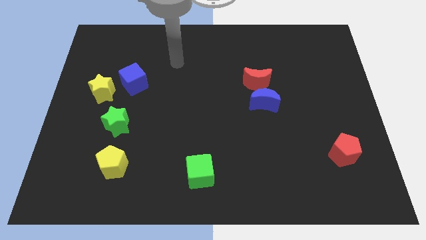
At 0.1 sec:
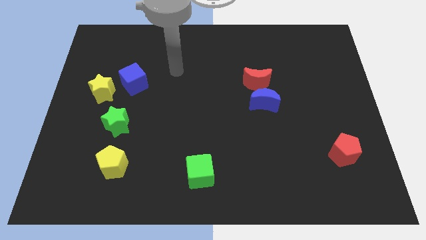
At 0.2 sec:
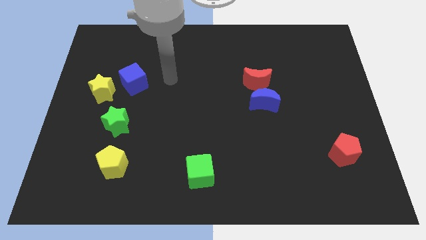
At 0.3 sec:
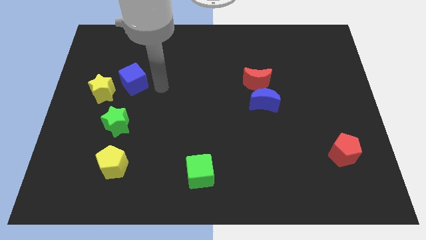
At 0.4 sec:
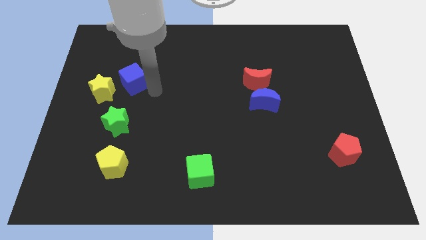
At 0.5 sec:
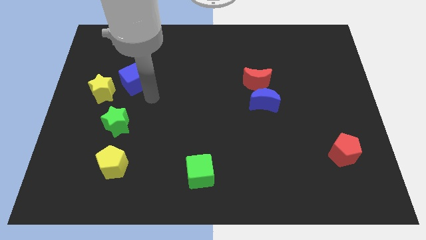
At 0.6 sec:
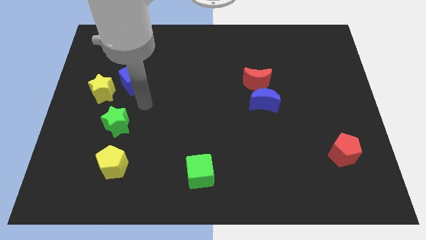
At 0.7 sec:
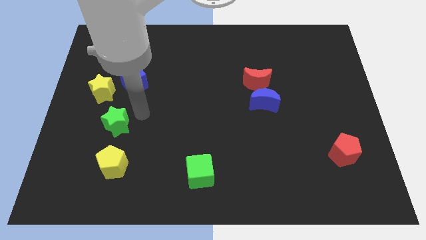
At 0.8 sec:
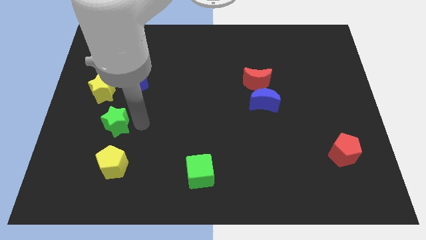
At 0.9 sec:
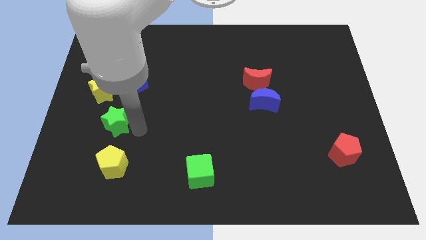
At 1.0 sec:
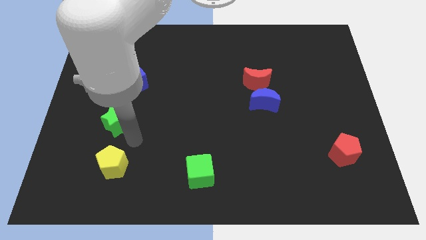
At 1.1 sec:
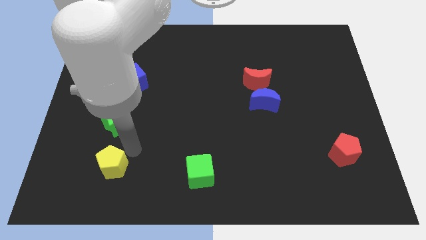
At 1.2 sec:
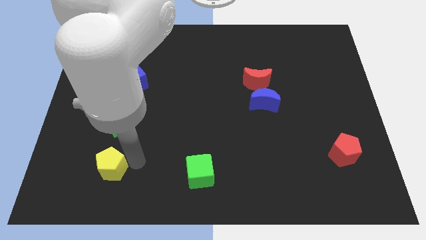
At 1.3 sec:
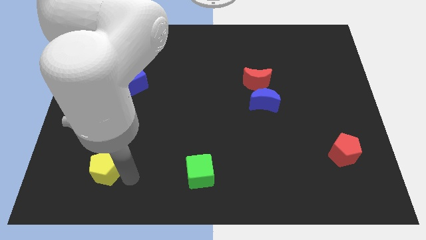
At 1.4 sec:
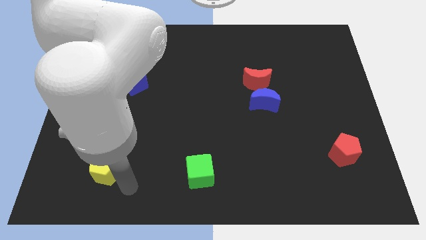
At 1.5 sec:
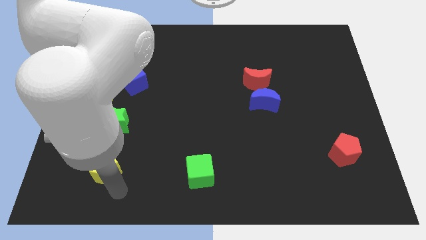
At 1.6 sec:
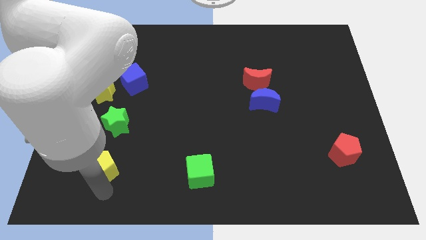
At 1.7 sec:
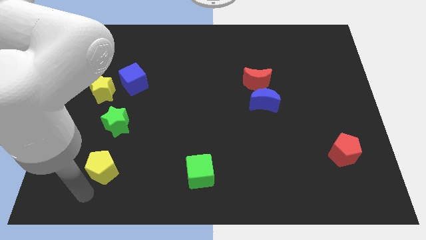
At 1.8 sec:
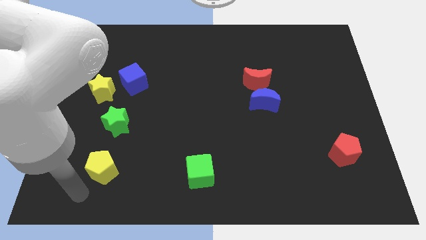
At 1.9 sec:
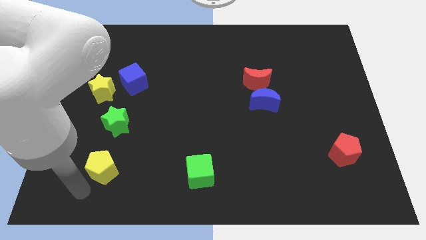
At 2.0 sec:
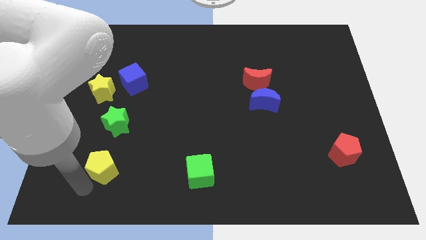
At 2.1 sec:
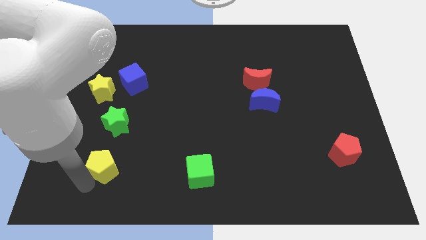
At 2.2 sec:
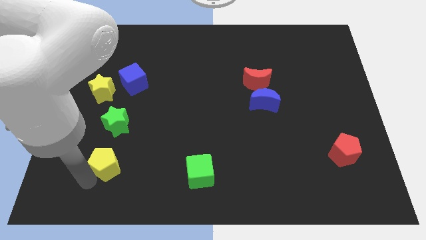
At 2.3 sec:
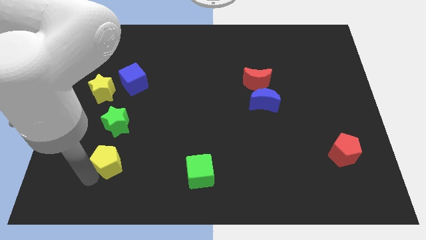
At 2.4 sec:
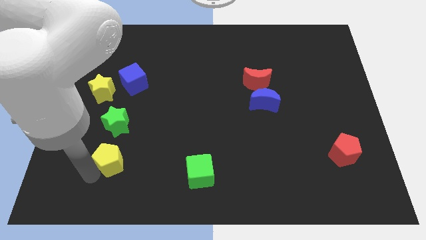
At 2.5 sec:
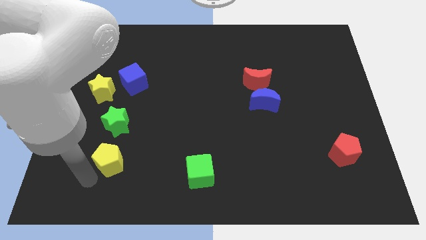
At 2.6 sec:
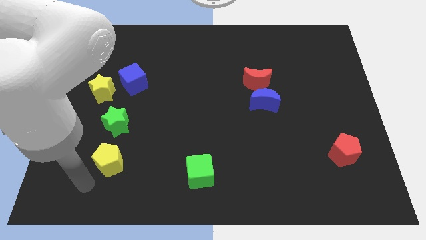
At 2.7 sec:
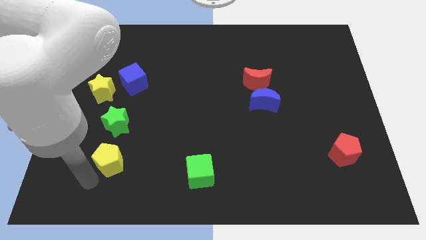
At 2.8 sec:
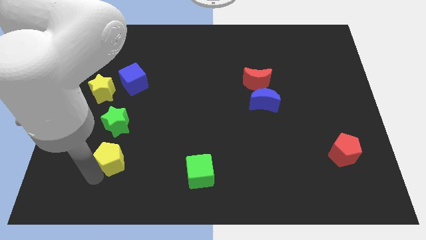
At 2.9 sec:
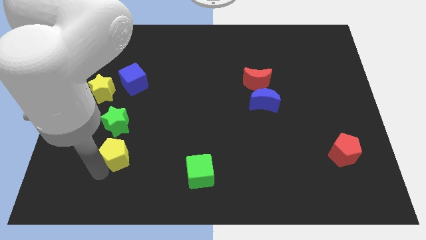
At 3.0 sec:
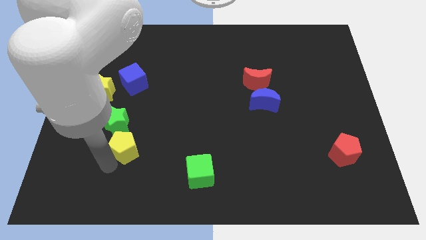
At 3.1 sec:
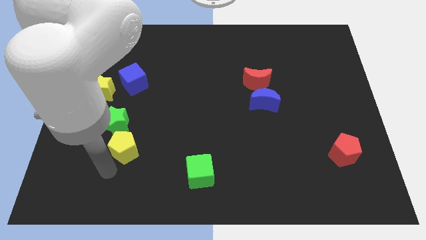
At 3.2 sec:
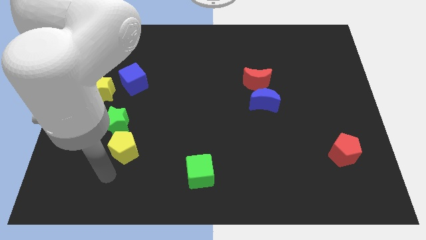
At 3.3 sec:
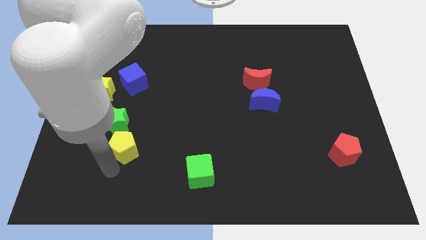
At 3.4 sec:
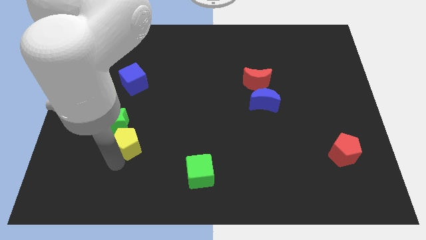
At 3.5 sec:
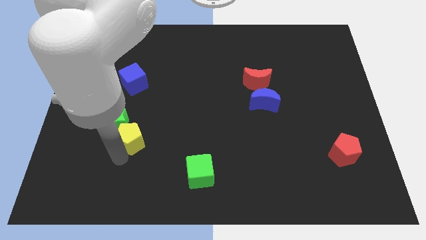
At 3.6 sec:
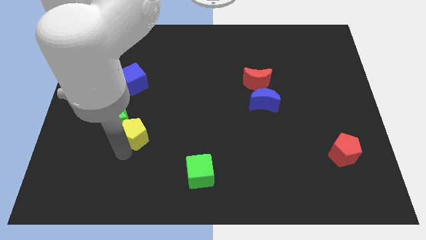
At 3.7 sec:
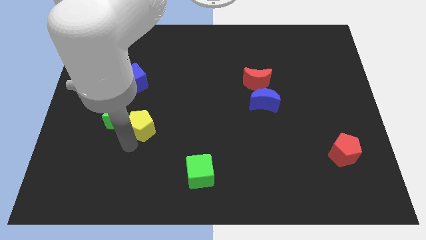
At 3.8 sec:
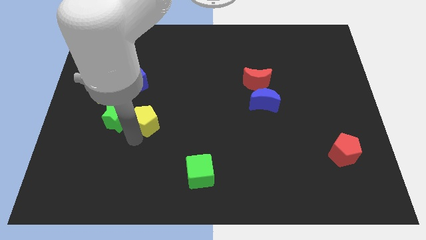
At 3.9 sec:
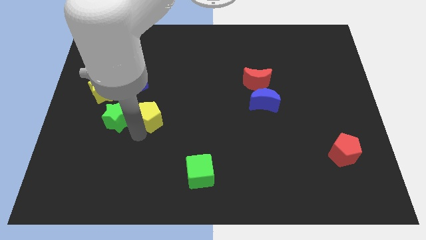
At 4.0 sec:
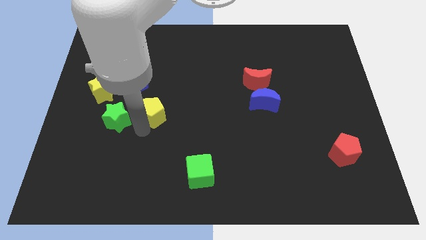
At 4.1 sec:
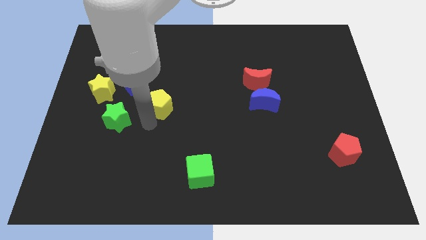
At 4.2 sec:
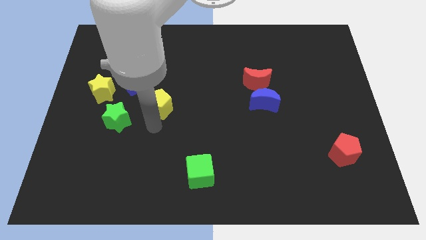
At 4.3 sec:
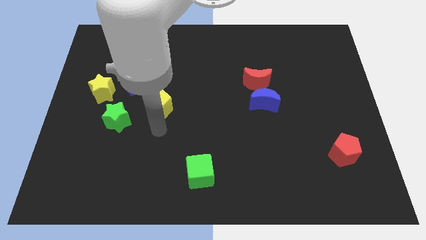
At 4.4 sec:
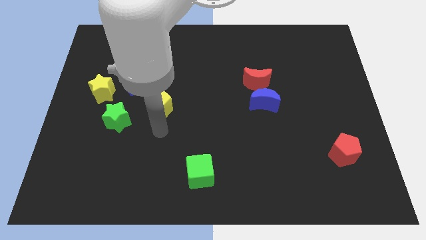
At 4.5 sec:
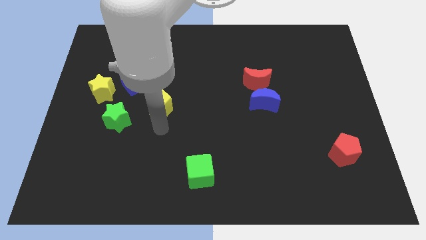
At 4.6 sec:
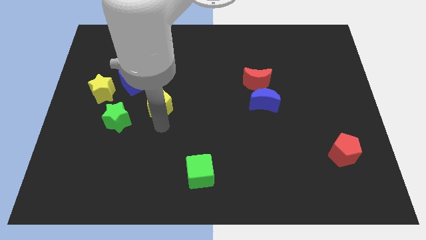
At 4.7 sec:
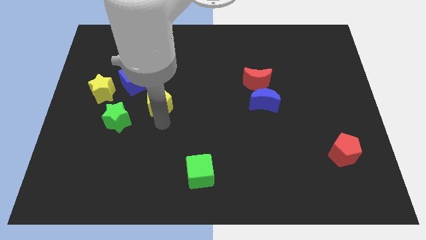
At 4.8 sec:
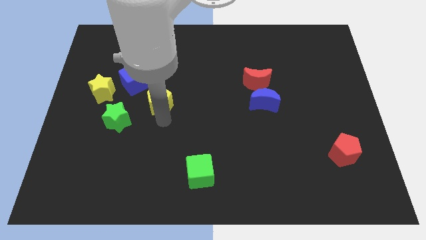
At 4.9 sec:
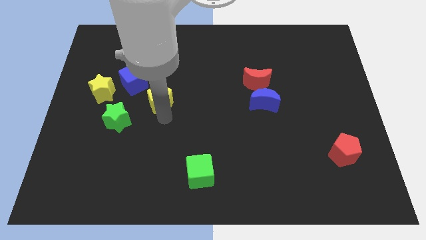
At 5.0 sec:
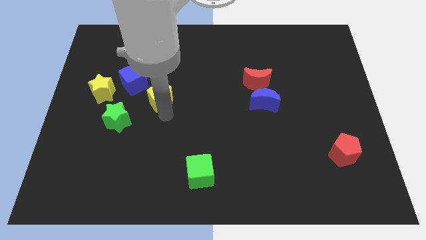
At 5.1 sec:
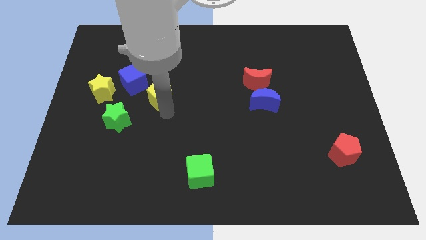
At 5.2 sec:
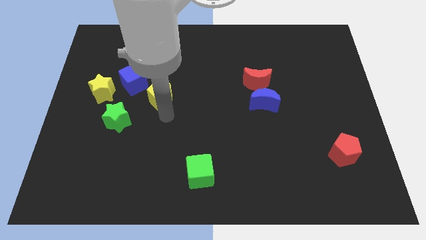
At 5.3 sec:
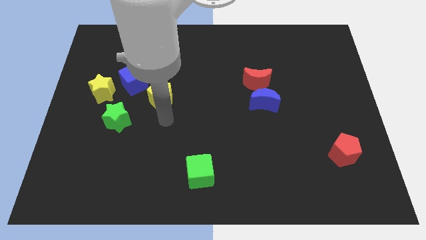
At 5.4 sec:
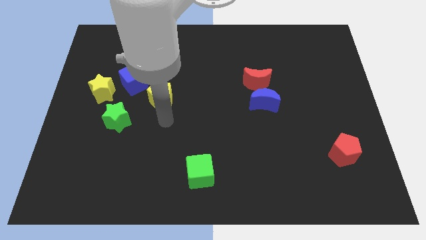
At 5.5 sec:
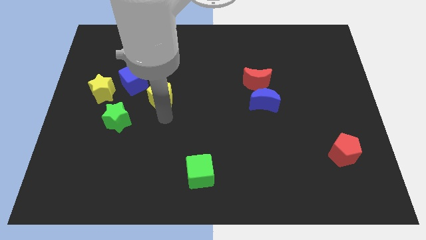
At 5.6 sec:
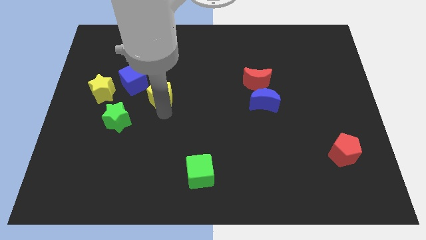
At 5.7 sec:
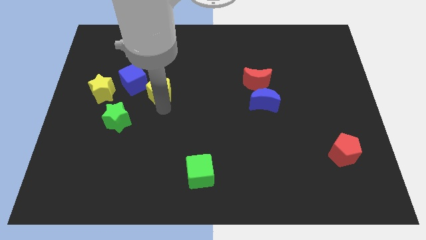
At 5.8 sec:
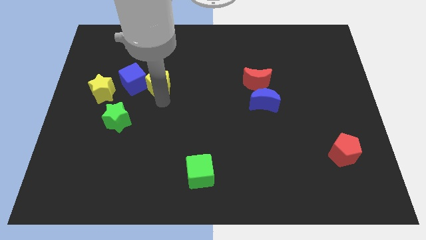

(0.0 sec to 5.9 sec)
slide the yellow pentagon upwards

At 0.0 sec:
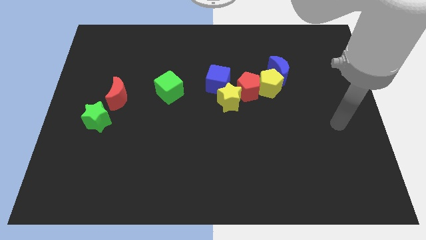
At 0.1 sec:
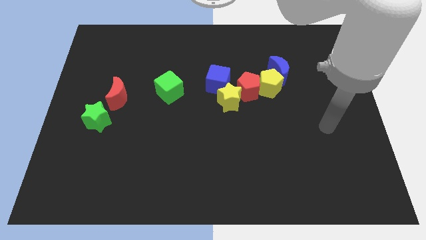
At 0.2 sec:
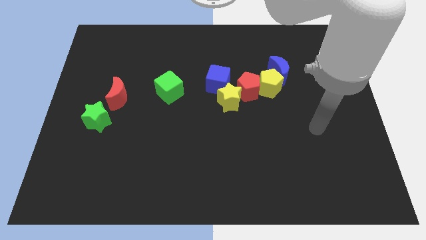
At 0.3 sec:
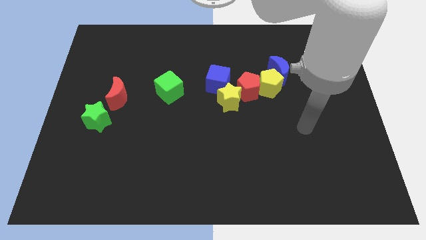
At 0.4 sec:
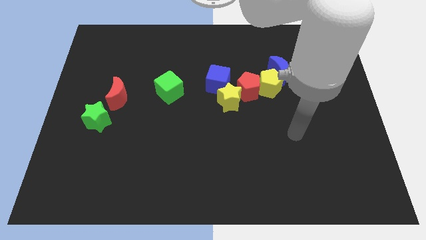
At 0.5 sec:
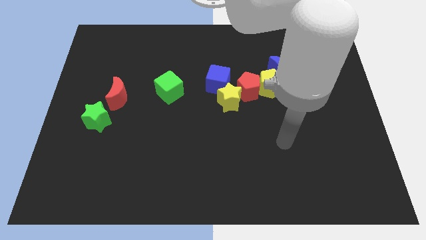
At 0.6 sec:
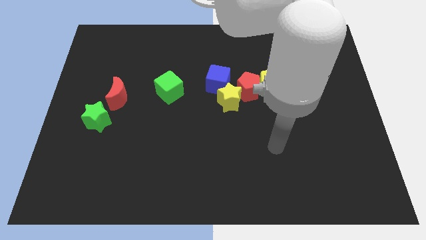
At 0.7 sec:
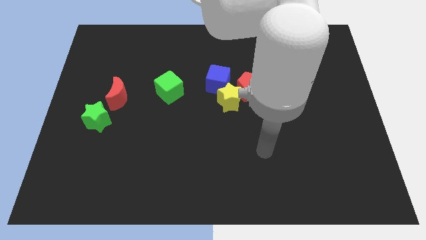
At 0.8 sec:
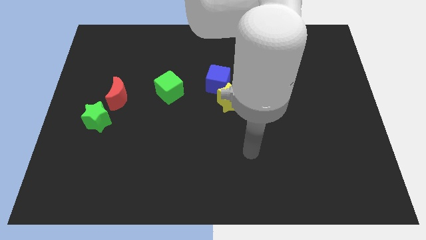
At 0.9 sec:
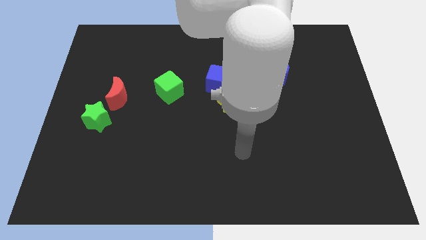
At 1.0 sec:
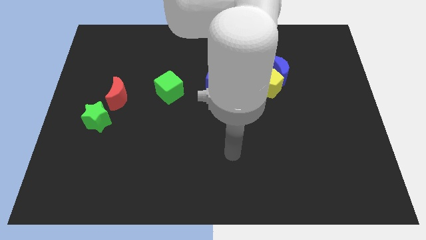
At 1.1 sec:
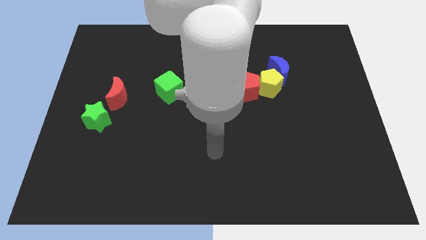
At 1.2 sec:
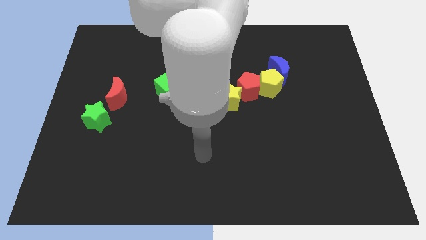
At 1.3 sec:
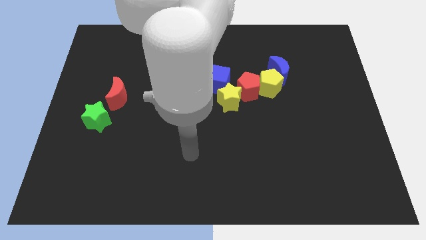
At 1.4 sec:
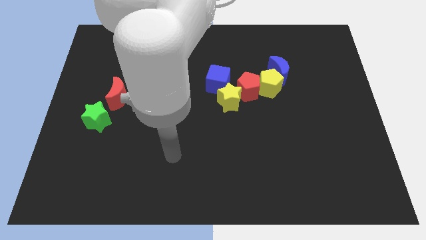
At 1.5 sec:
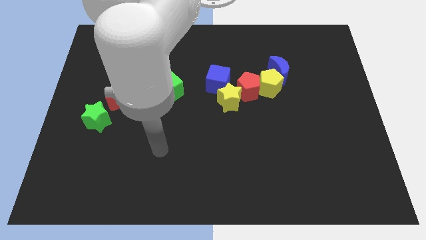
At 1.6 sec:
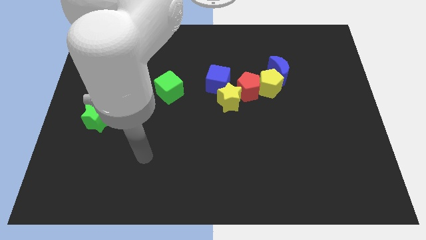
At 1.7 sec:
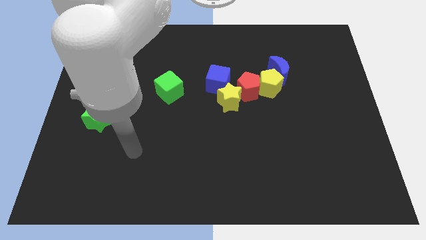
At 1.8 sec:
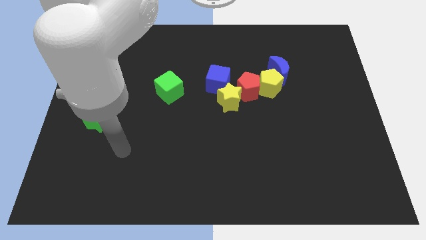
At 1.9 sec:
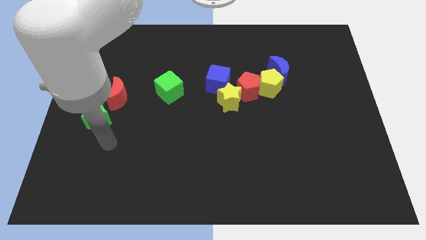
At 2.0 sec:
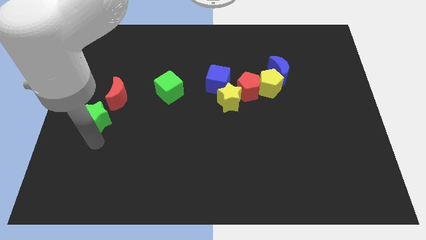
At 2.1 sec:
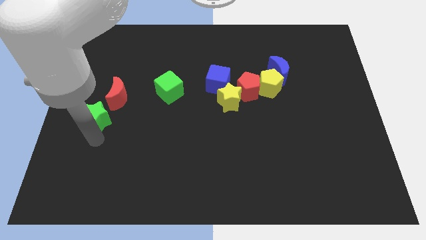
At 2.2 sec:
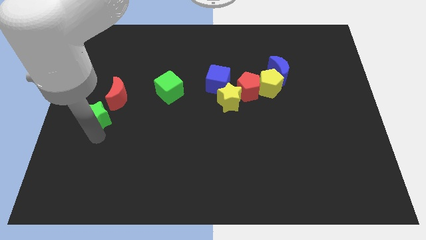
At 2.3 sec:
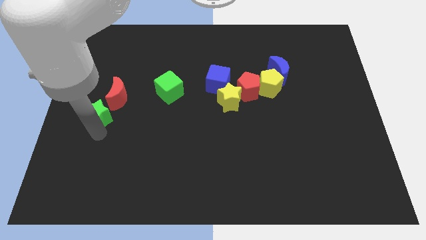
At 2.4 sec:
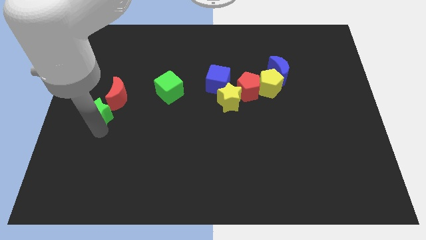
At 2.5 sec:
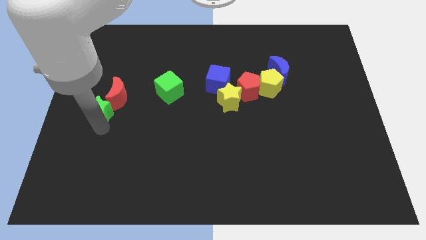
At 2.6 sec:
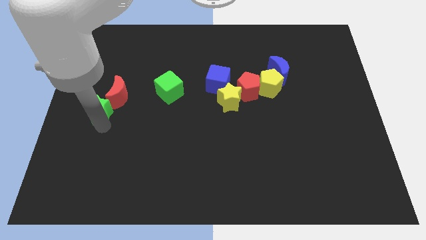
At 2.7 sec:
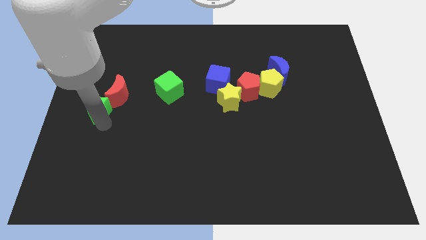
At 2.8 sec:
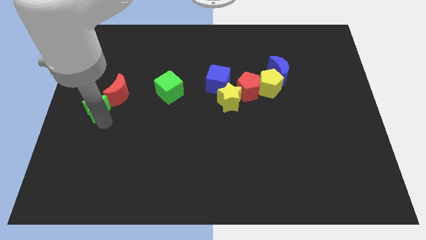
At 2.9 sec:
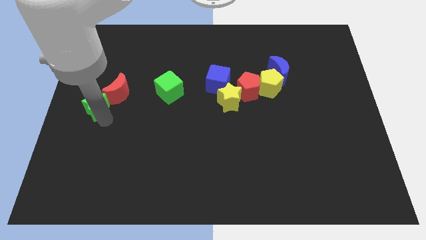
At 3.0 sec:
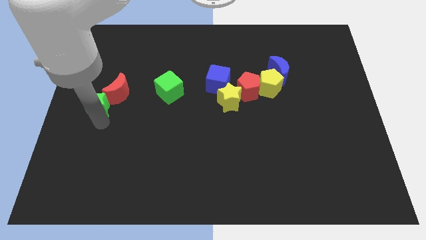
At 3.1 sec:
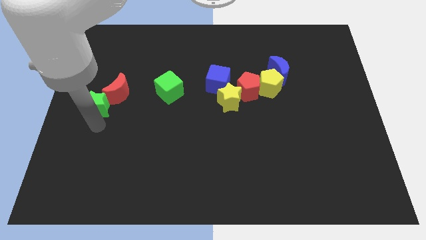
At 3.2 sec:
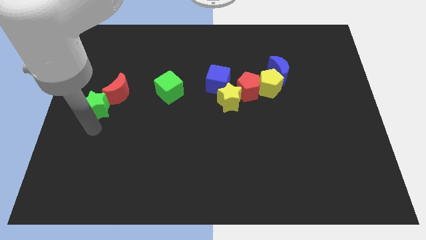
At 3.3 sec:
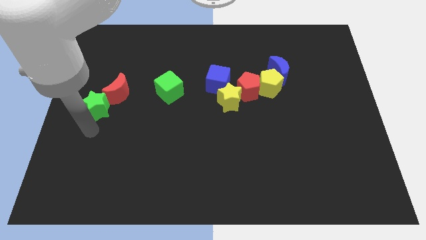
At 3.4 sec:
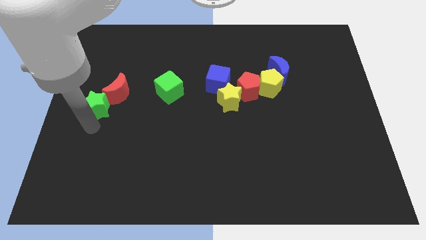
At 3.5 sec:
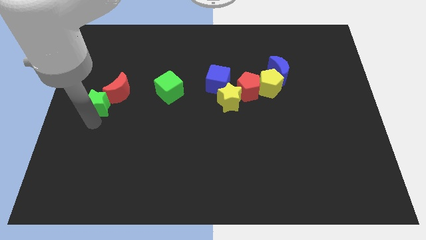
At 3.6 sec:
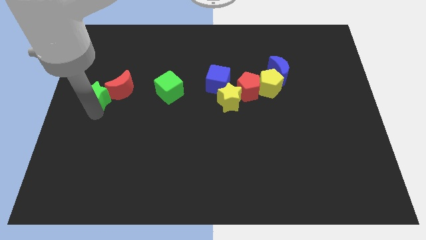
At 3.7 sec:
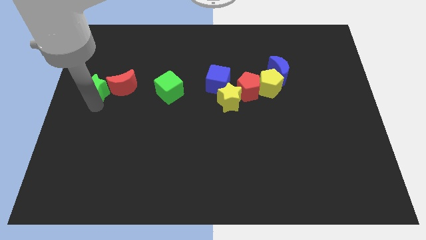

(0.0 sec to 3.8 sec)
push the green star up somewhat
